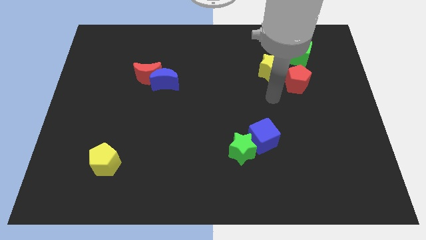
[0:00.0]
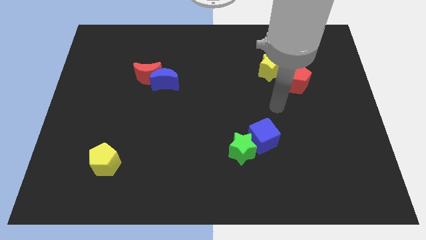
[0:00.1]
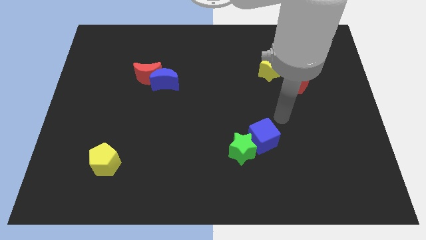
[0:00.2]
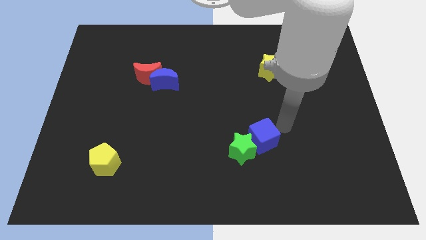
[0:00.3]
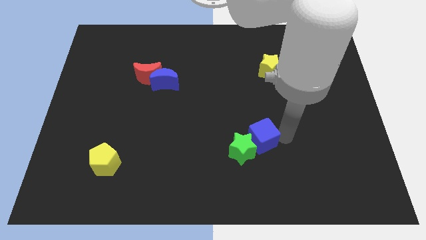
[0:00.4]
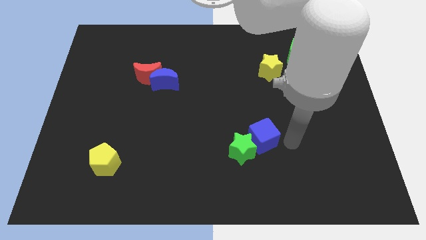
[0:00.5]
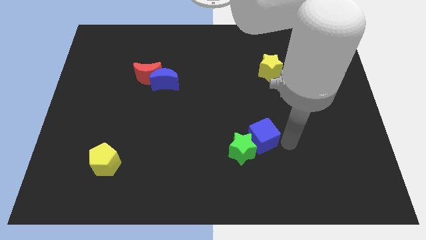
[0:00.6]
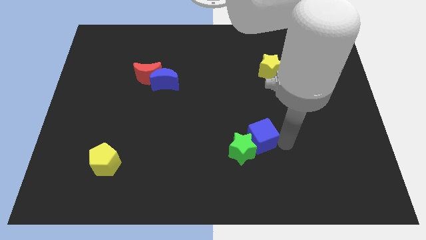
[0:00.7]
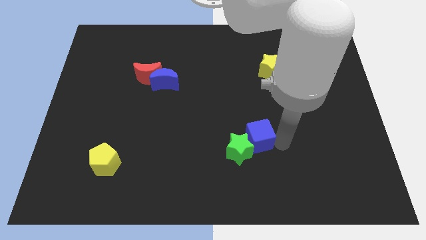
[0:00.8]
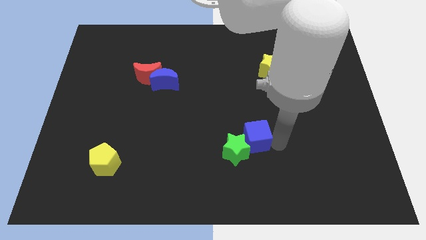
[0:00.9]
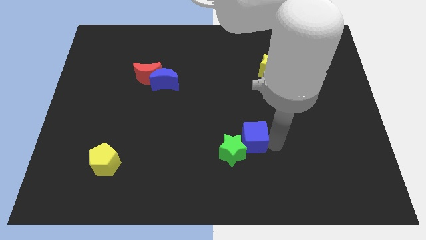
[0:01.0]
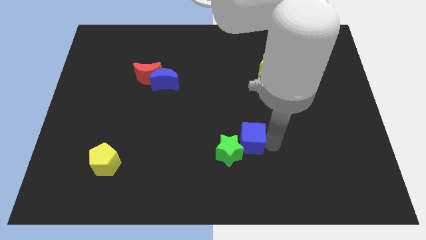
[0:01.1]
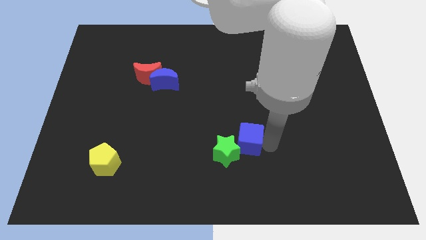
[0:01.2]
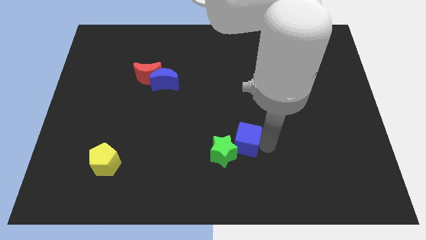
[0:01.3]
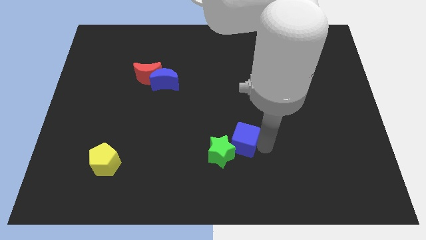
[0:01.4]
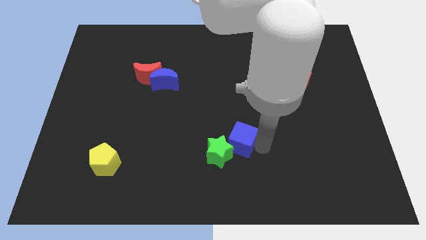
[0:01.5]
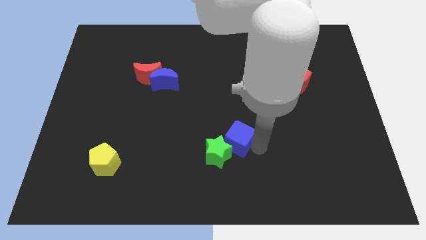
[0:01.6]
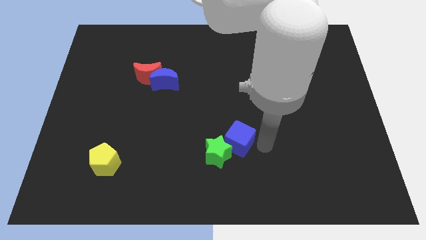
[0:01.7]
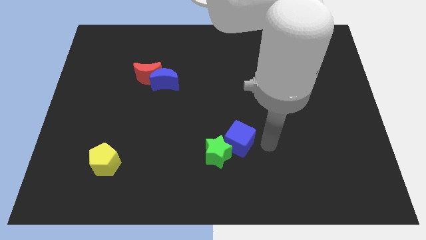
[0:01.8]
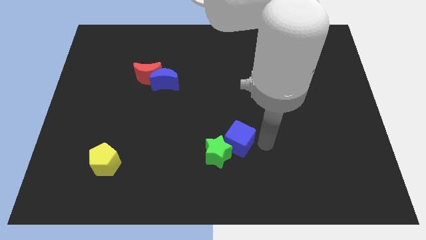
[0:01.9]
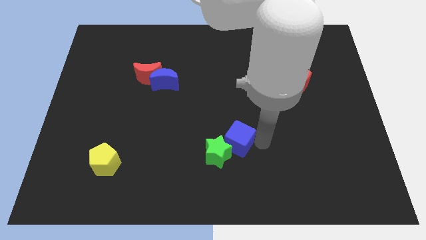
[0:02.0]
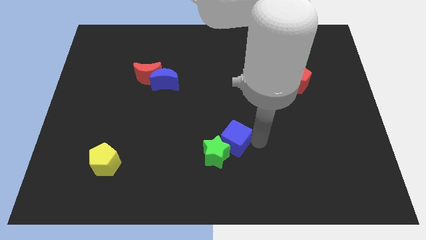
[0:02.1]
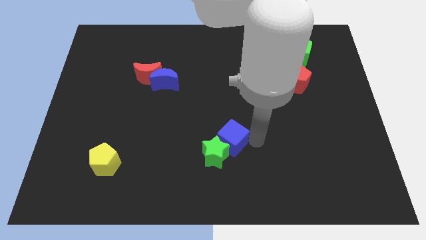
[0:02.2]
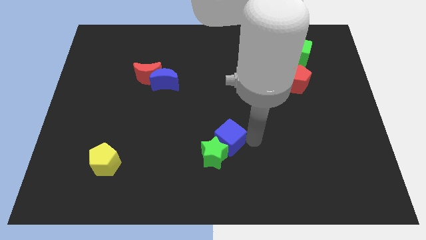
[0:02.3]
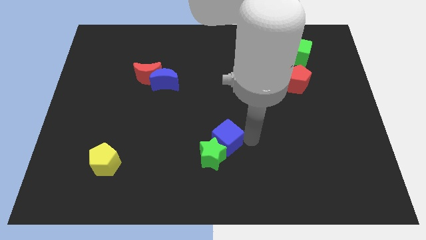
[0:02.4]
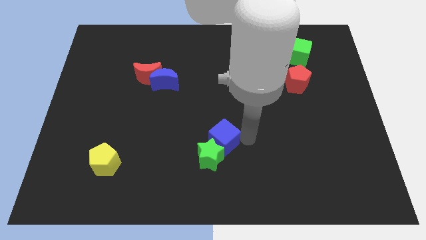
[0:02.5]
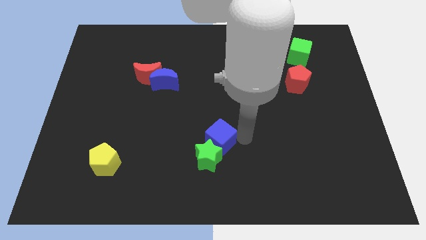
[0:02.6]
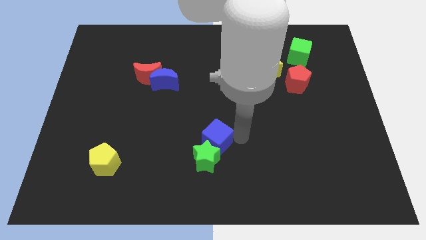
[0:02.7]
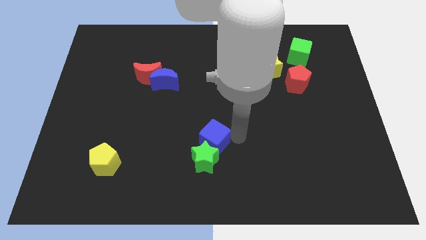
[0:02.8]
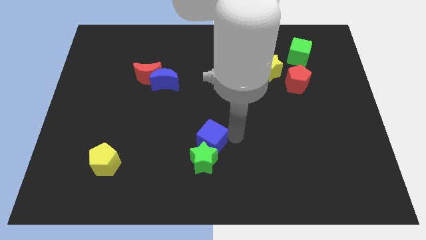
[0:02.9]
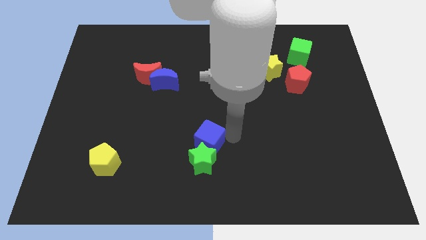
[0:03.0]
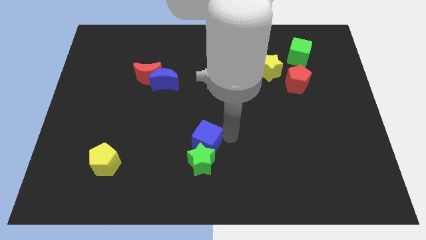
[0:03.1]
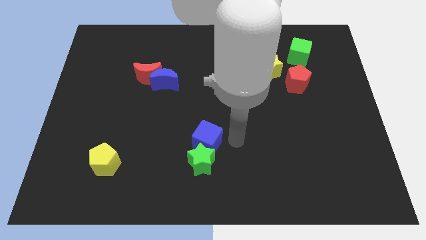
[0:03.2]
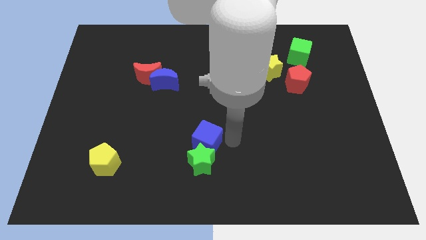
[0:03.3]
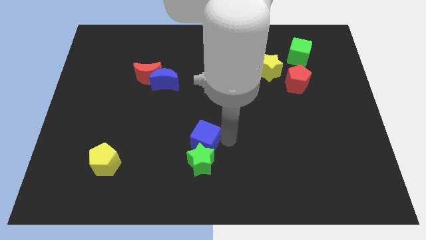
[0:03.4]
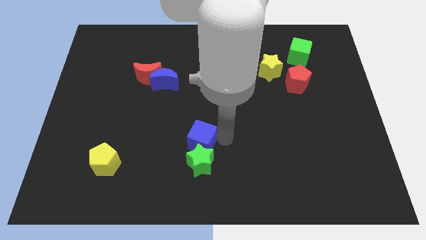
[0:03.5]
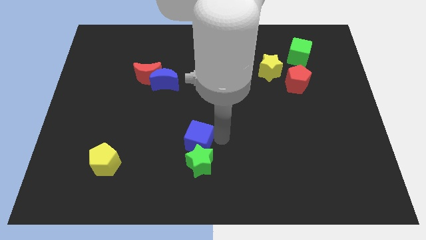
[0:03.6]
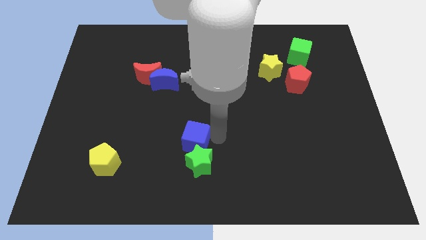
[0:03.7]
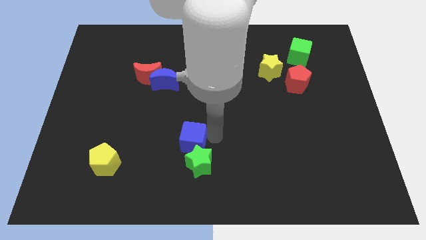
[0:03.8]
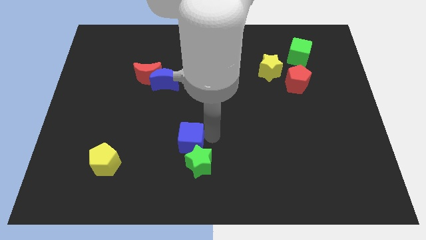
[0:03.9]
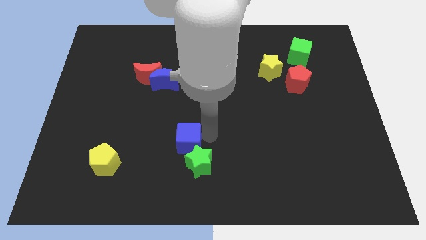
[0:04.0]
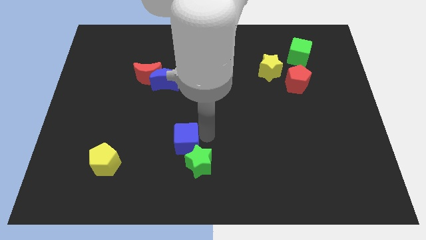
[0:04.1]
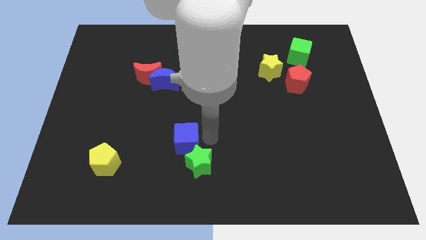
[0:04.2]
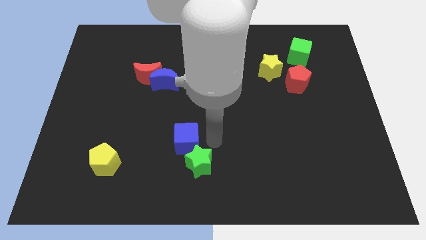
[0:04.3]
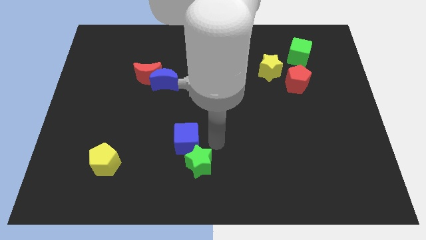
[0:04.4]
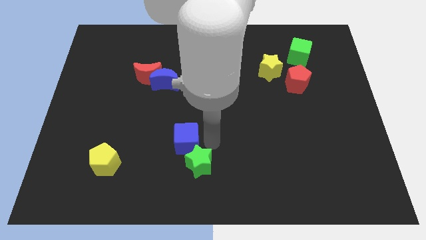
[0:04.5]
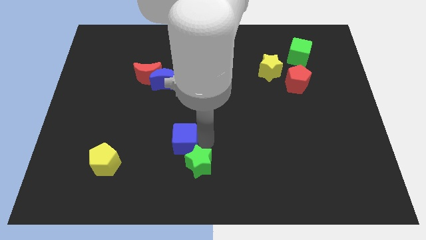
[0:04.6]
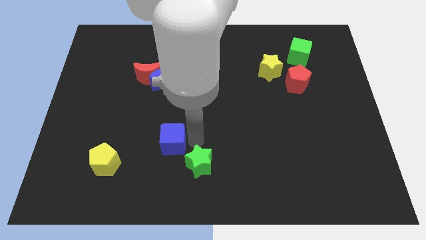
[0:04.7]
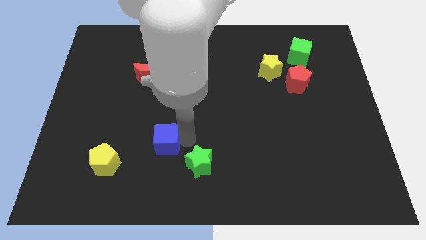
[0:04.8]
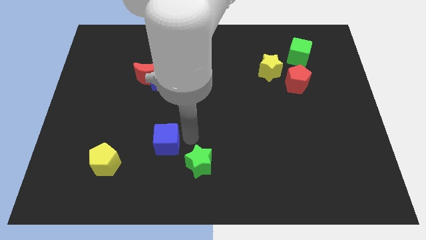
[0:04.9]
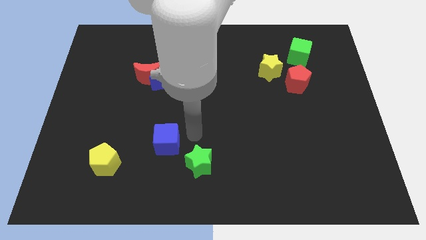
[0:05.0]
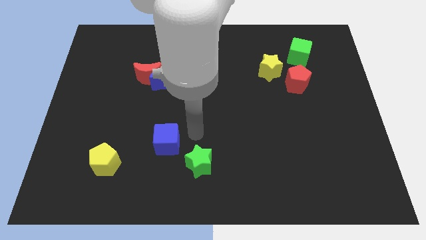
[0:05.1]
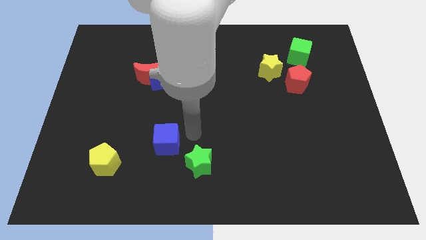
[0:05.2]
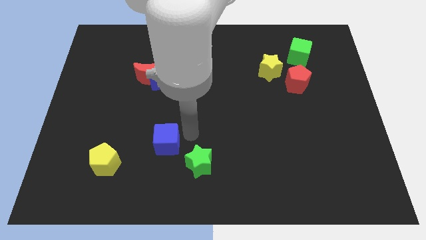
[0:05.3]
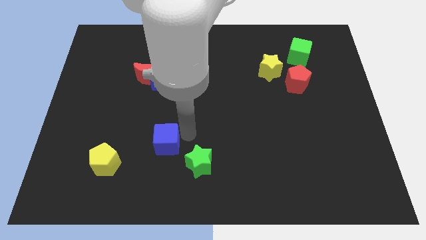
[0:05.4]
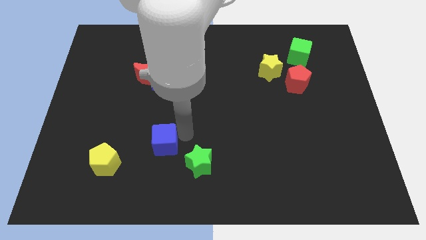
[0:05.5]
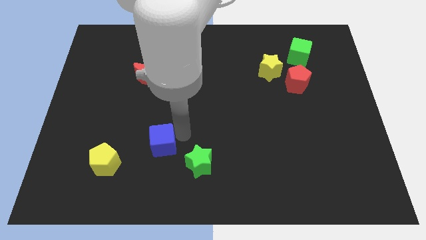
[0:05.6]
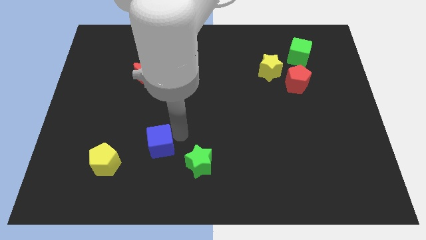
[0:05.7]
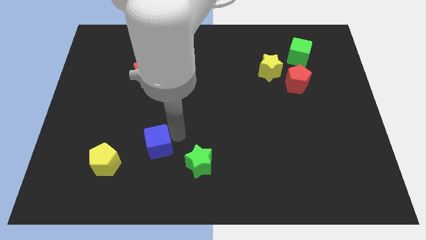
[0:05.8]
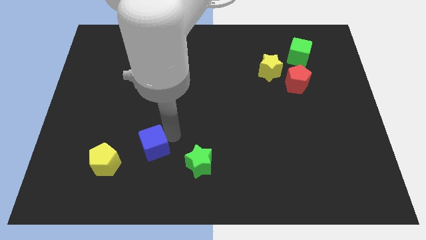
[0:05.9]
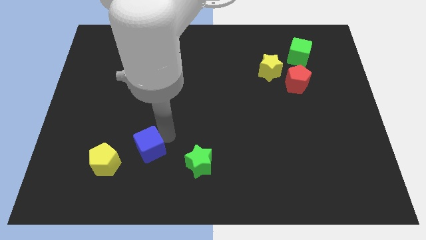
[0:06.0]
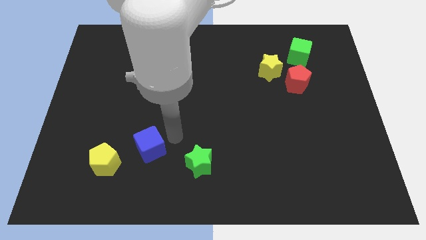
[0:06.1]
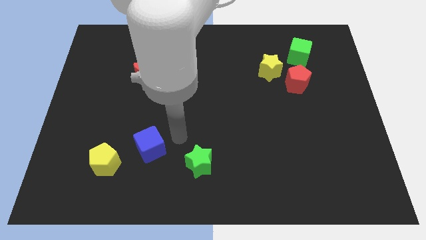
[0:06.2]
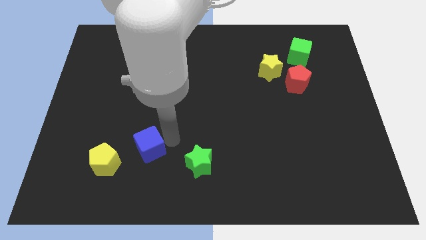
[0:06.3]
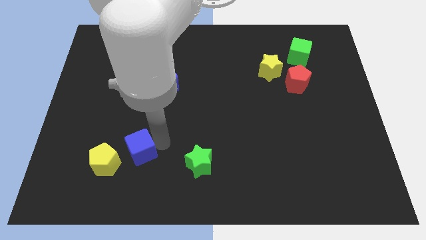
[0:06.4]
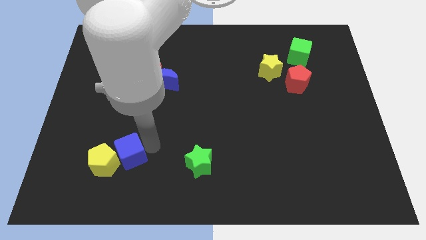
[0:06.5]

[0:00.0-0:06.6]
put the blue cube to the yellow pentagon

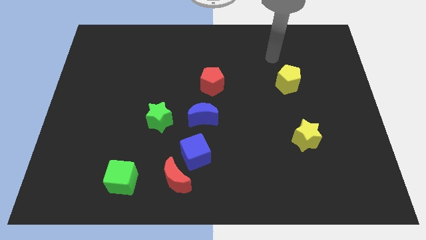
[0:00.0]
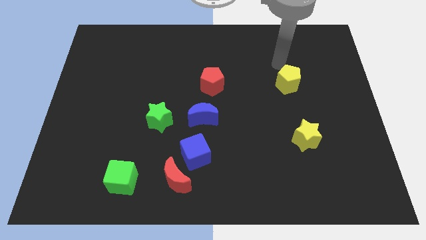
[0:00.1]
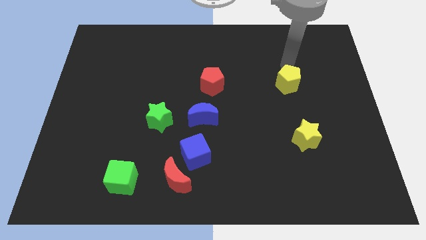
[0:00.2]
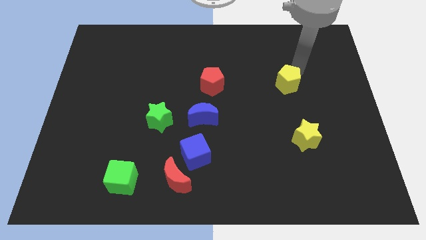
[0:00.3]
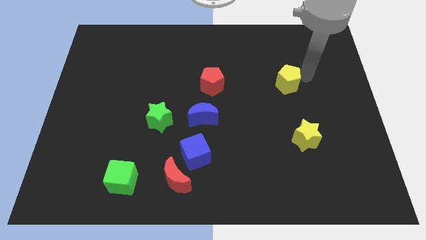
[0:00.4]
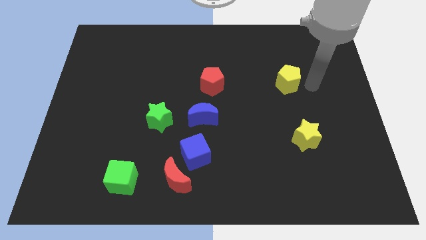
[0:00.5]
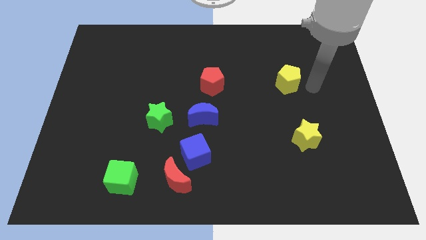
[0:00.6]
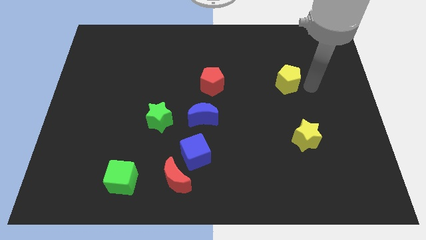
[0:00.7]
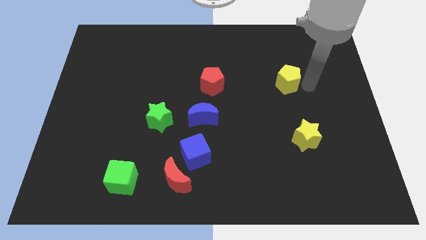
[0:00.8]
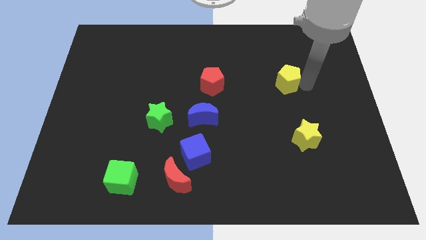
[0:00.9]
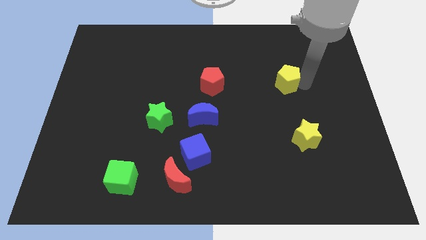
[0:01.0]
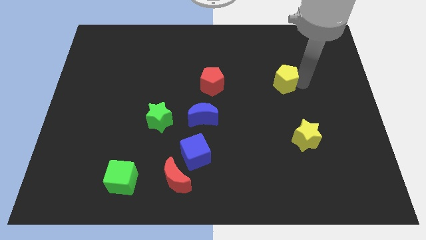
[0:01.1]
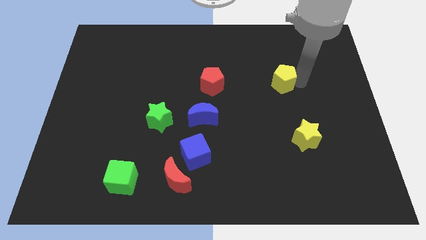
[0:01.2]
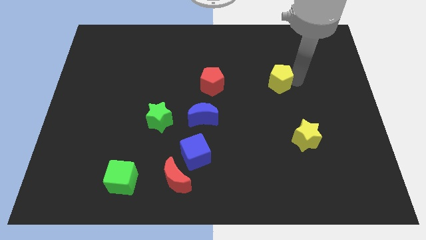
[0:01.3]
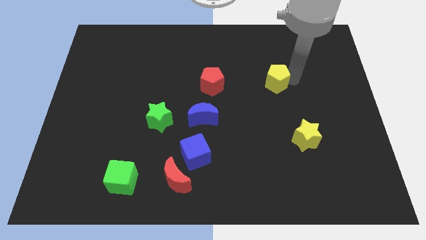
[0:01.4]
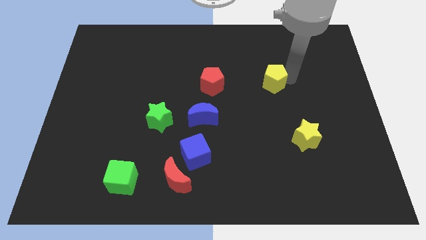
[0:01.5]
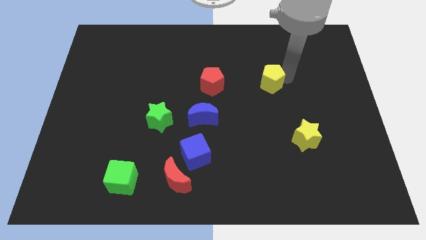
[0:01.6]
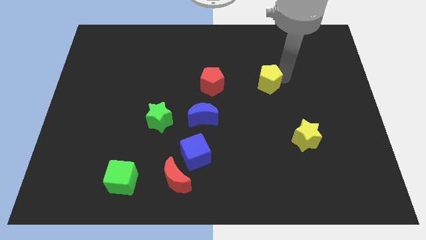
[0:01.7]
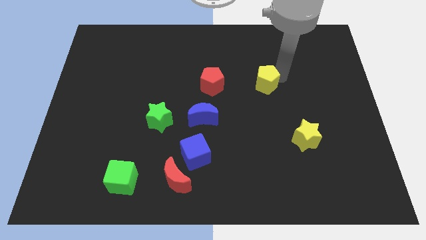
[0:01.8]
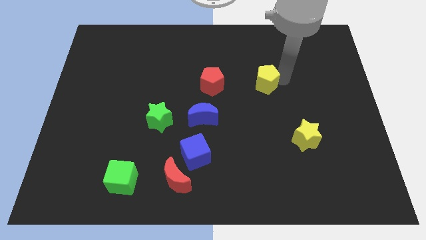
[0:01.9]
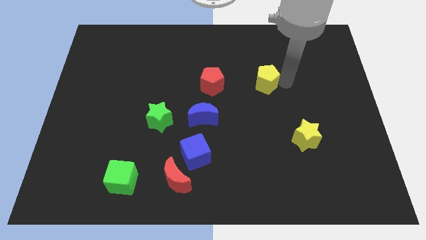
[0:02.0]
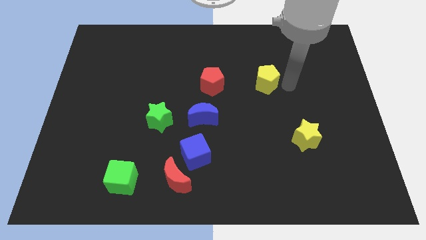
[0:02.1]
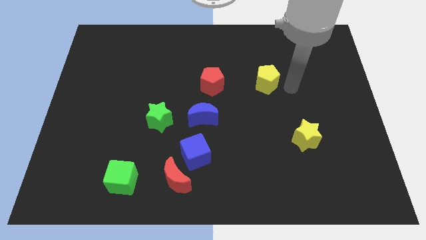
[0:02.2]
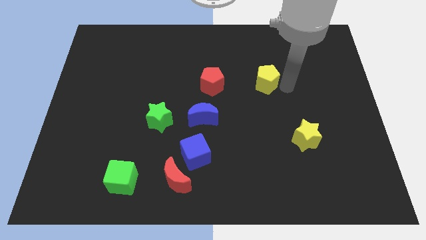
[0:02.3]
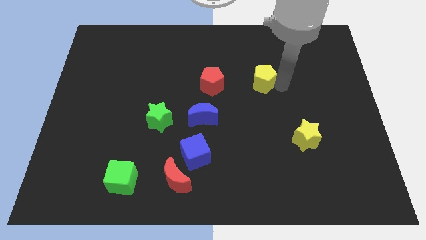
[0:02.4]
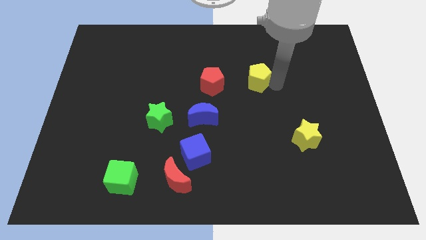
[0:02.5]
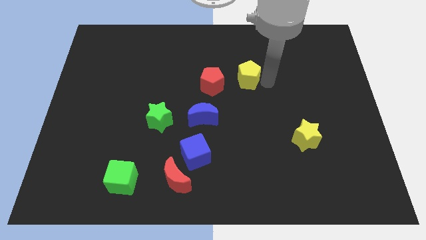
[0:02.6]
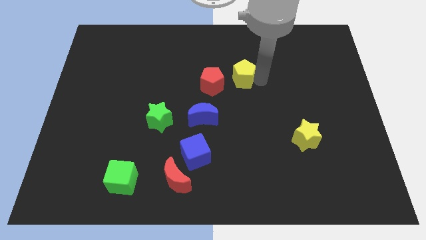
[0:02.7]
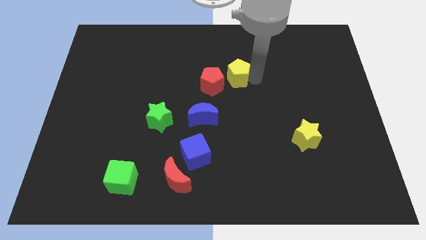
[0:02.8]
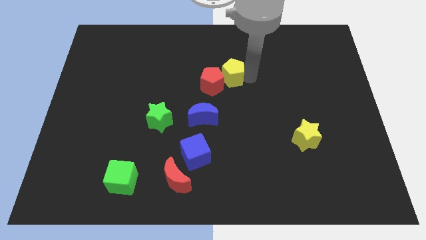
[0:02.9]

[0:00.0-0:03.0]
push the yellow pentagon next to the red pentagon
